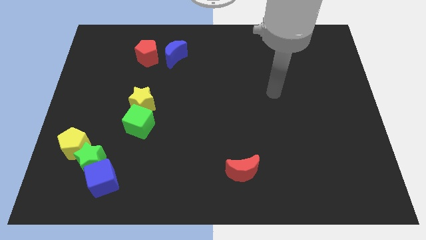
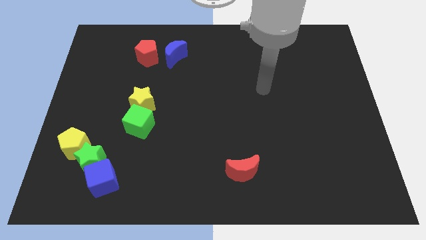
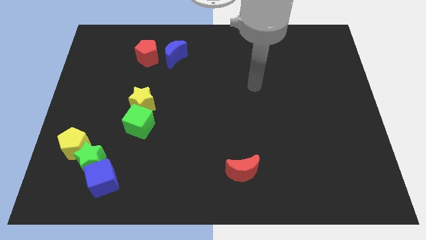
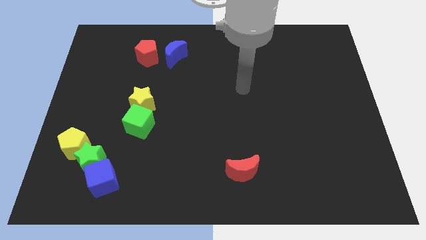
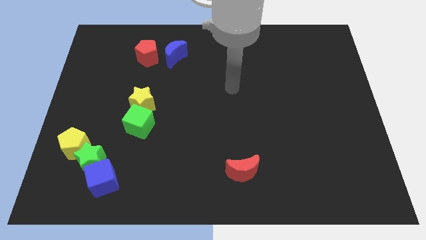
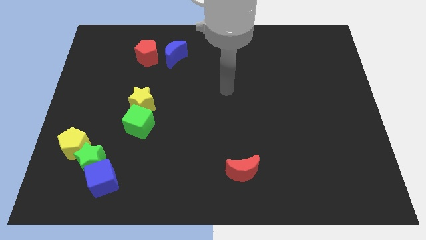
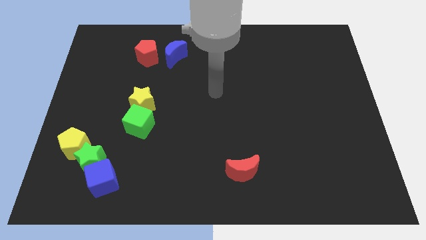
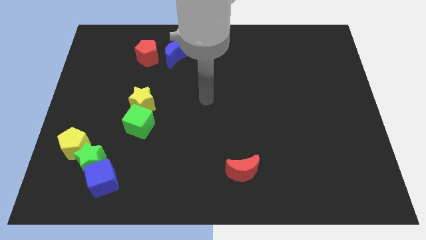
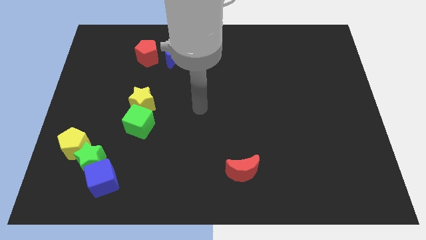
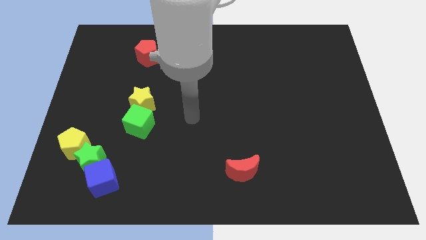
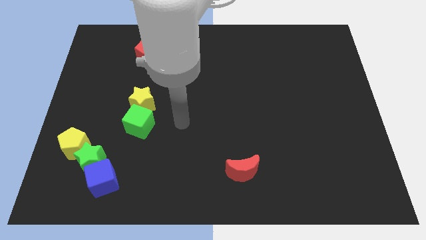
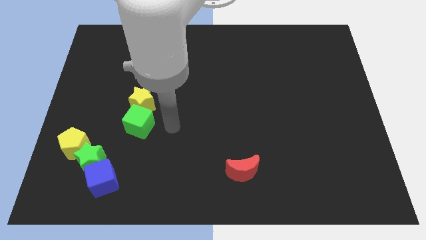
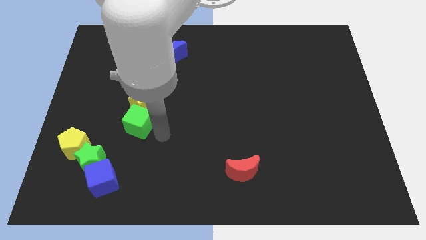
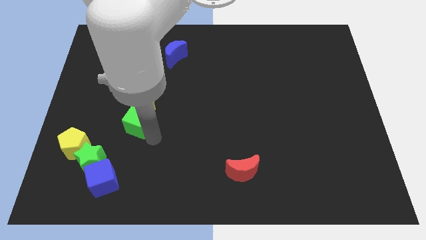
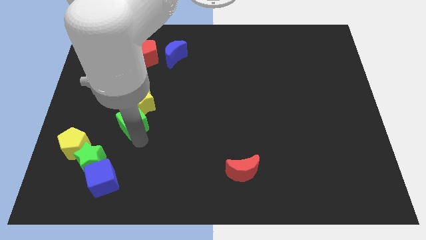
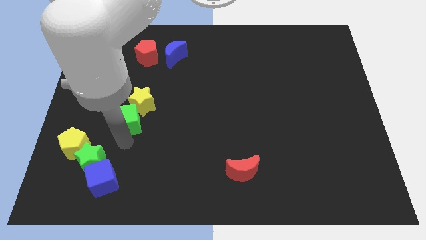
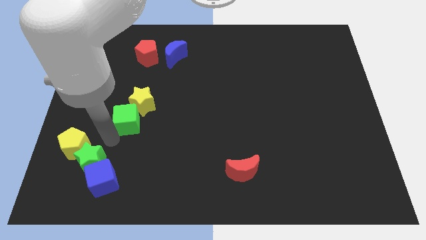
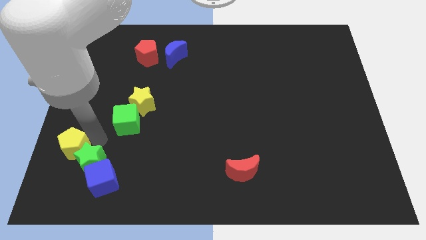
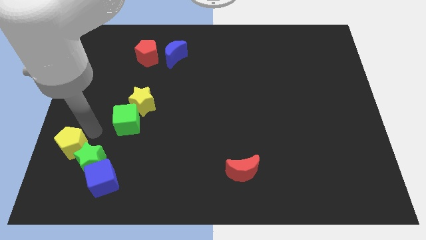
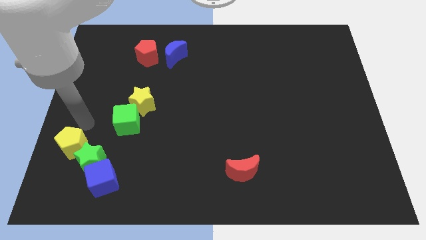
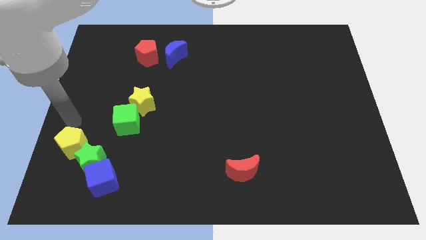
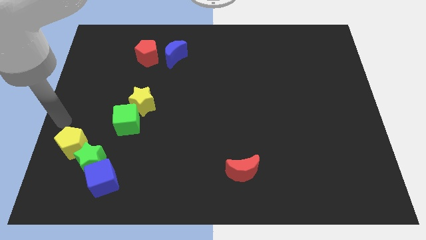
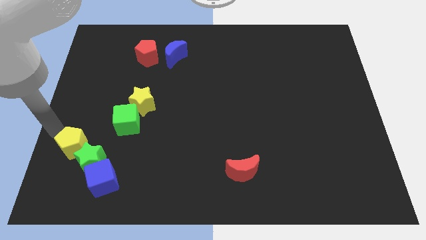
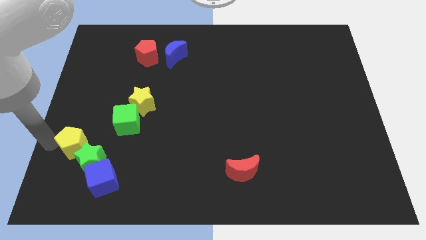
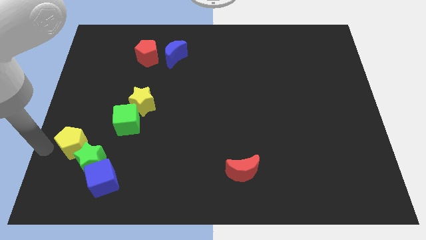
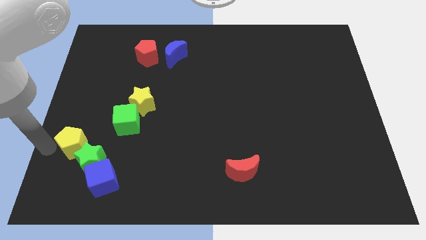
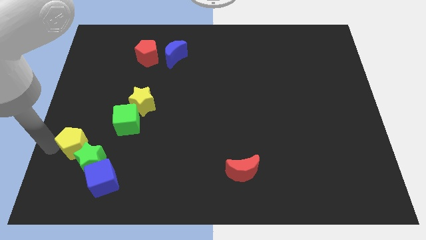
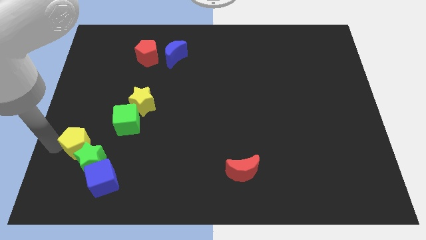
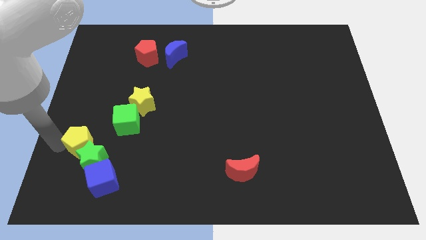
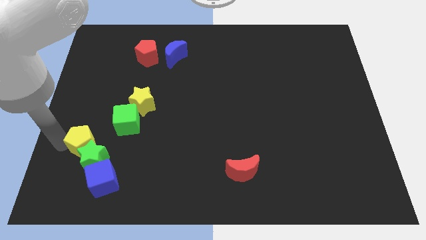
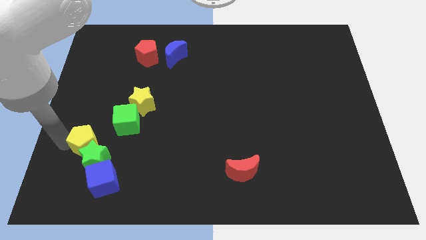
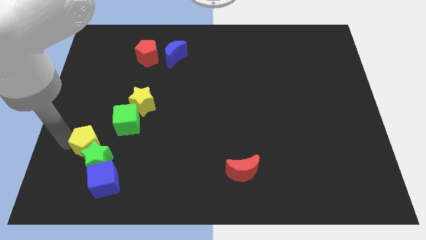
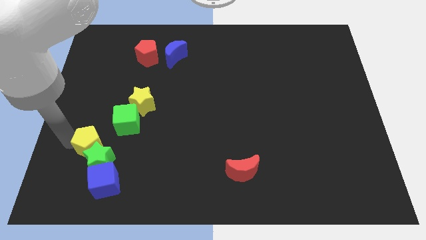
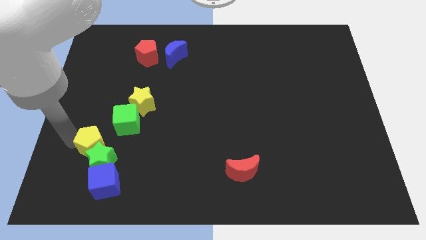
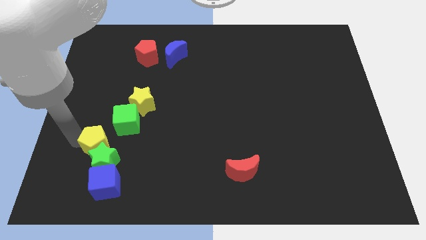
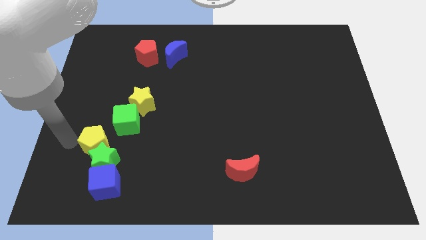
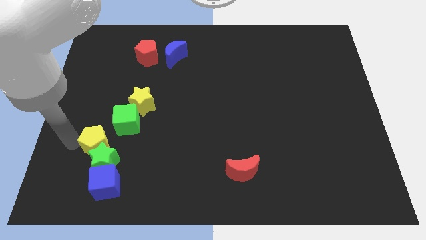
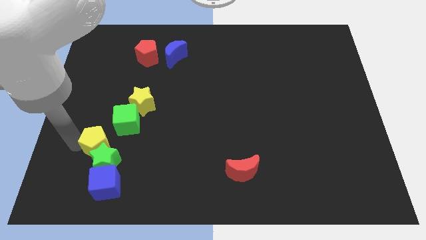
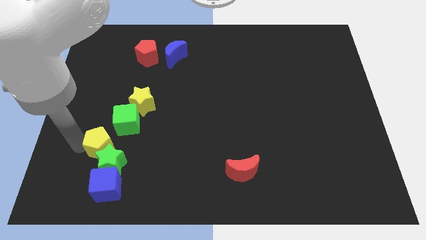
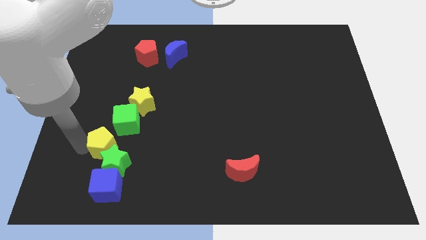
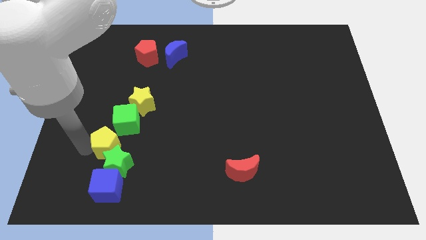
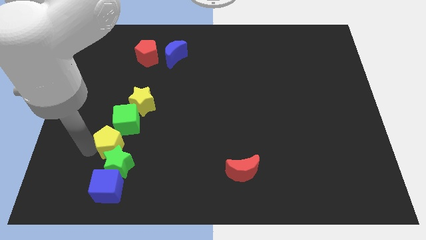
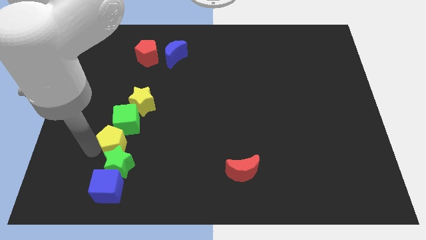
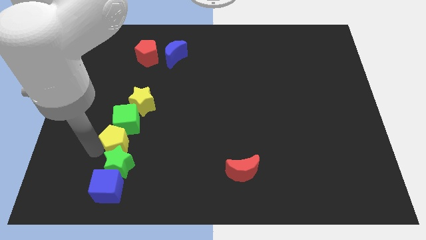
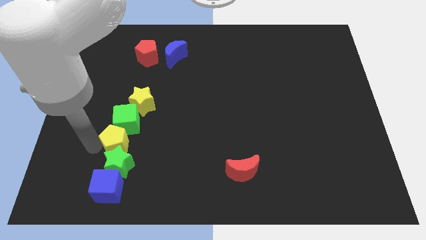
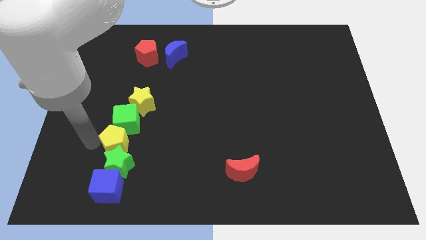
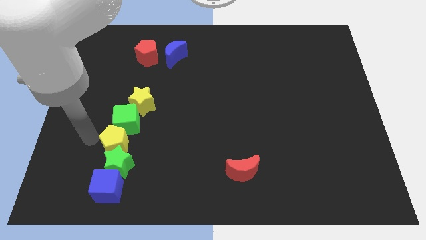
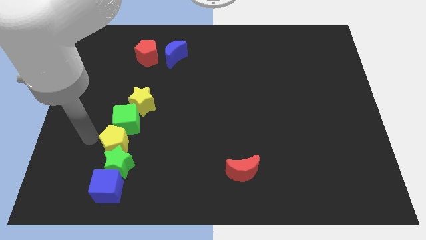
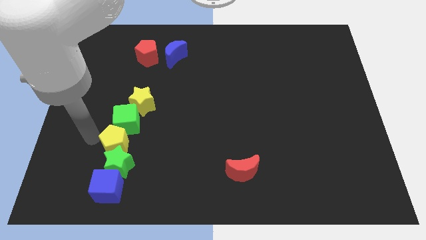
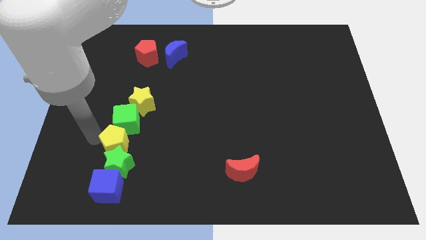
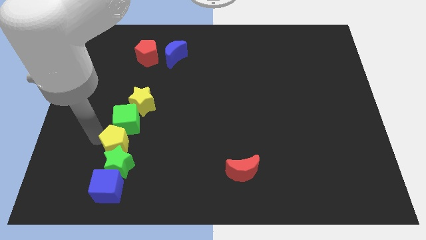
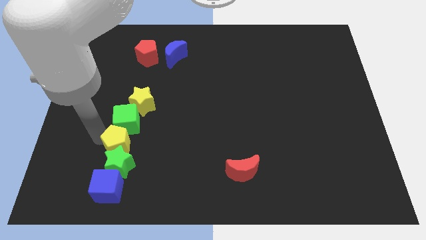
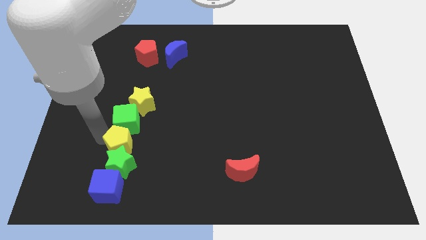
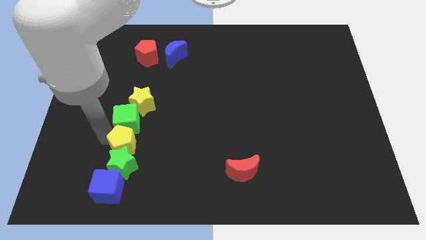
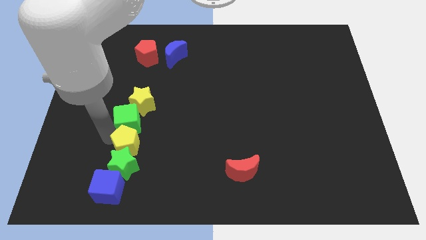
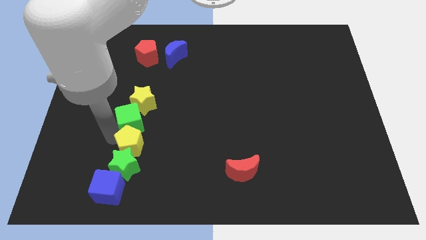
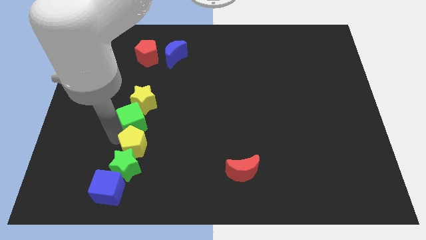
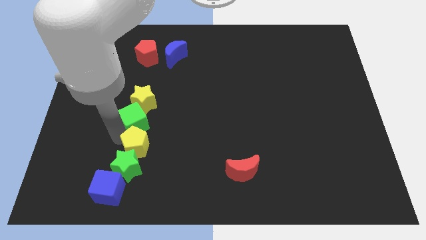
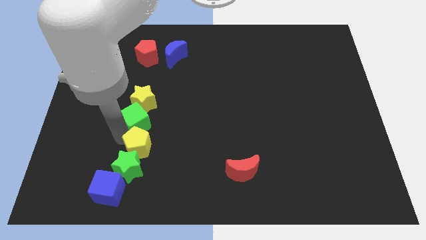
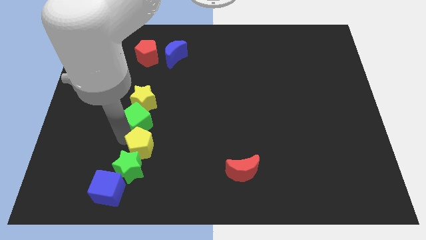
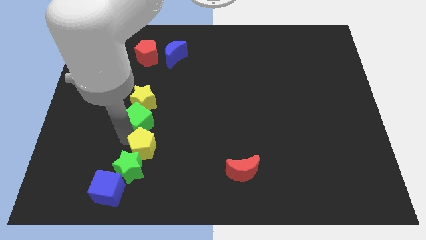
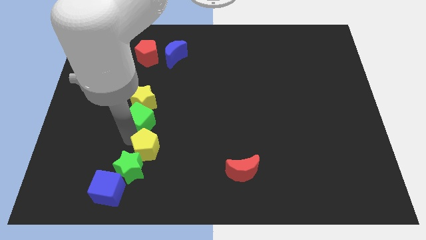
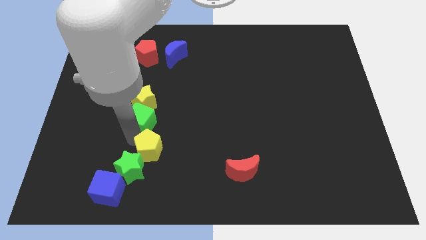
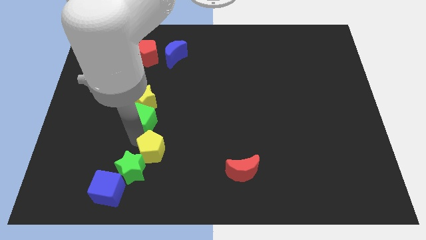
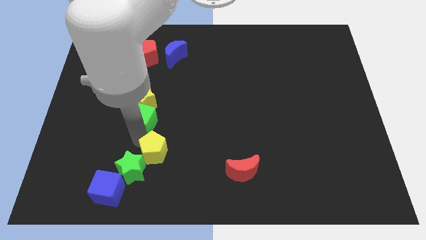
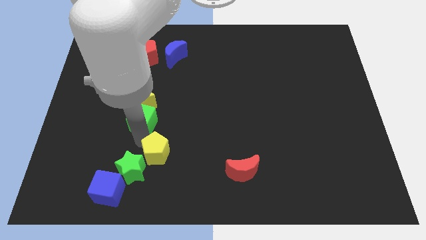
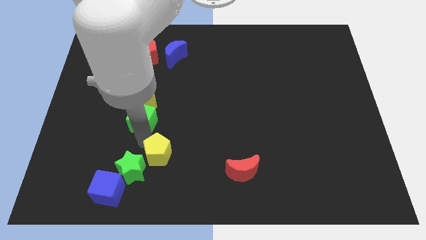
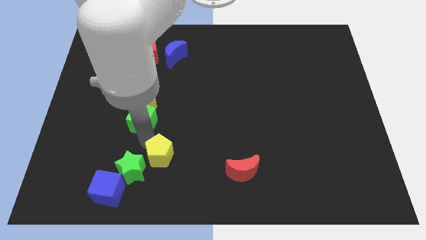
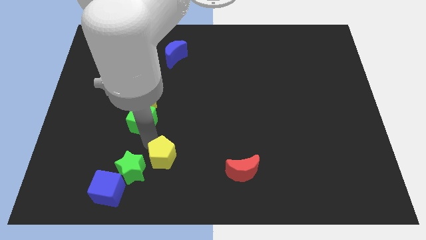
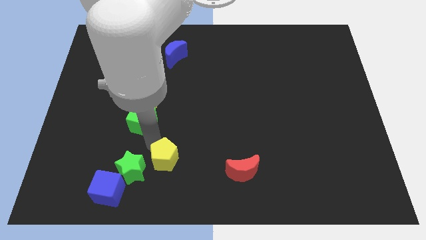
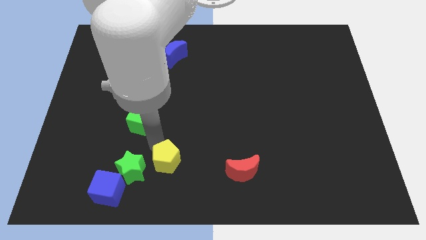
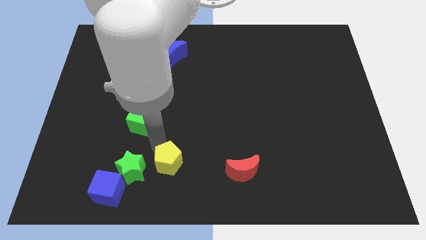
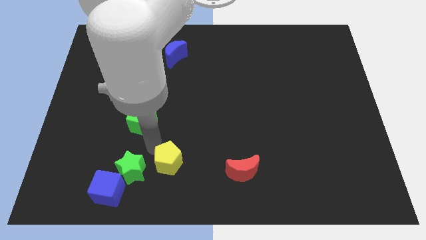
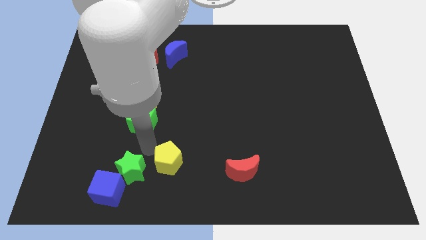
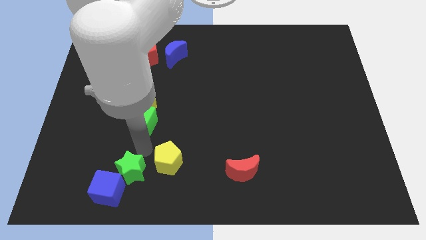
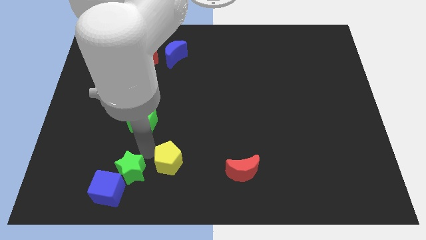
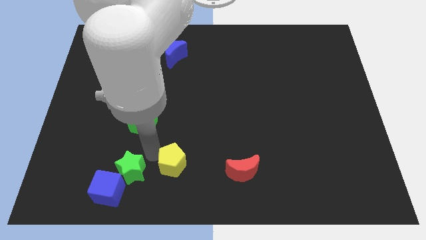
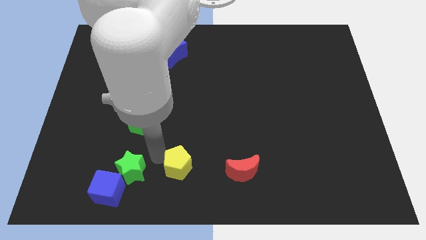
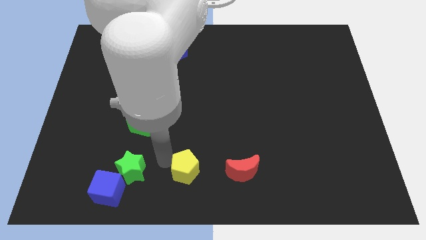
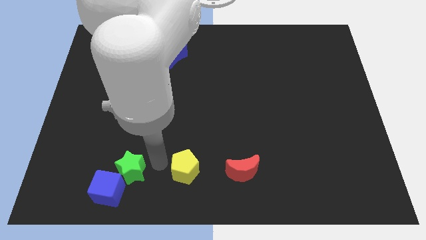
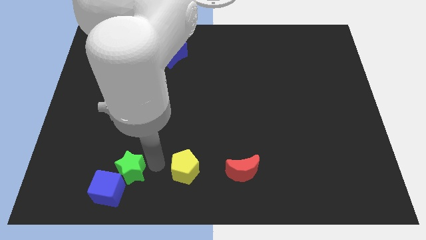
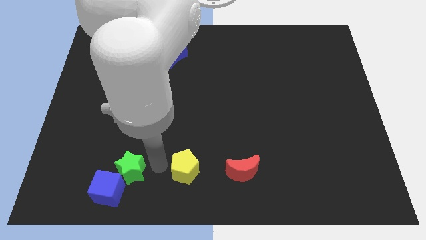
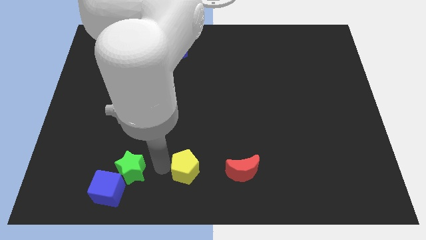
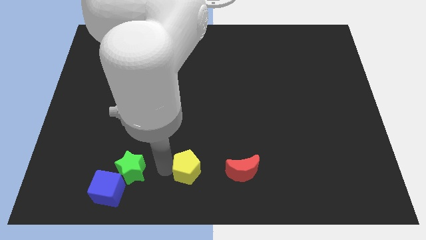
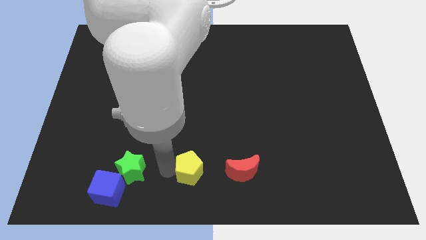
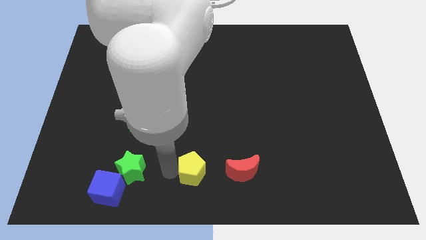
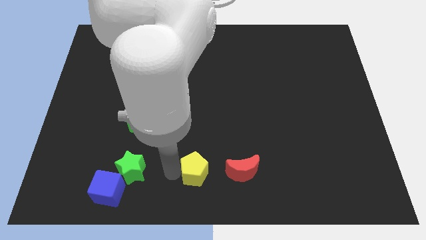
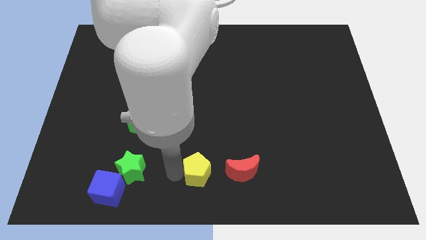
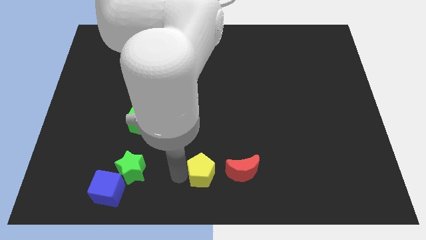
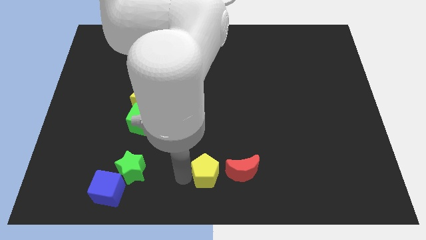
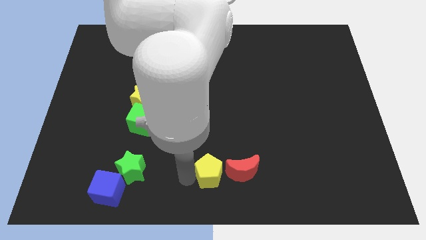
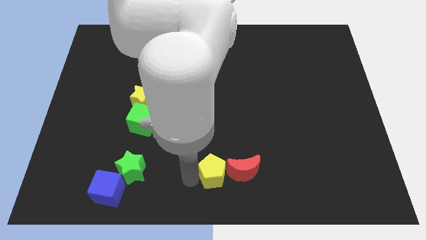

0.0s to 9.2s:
slide the yellow pentagon next to the red moon
